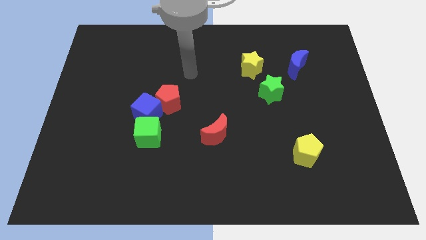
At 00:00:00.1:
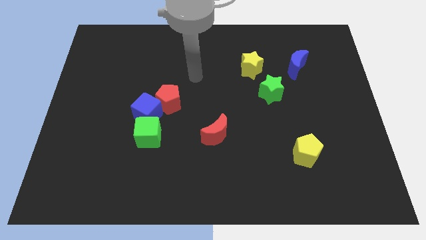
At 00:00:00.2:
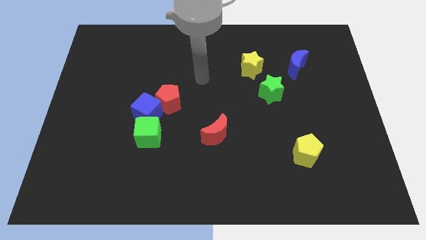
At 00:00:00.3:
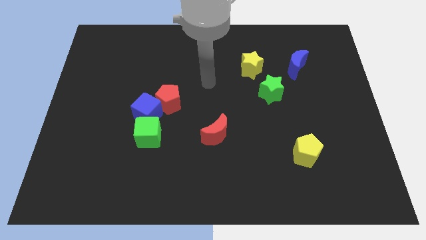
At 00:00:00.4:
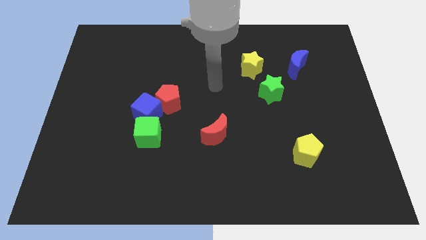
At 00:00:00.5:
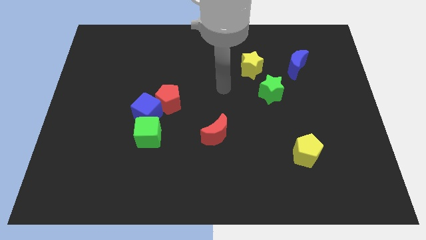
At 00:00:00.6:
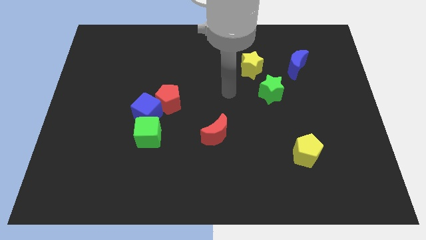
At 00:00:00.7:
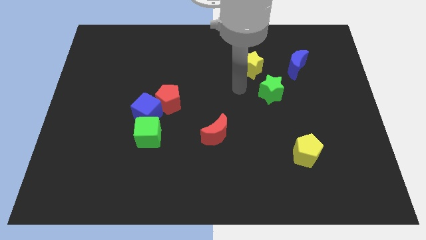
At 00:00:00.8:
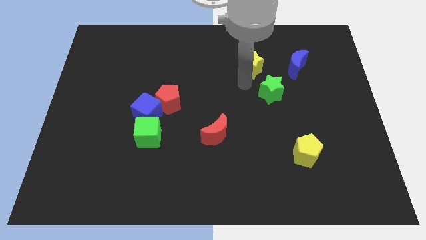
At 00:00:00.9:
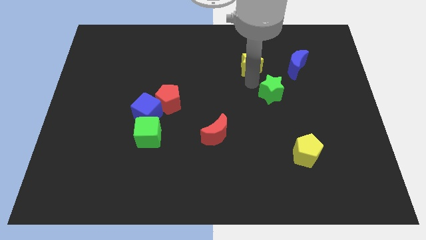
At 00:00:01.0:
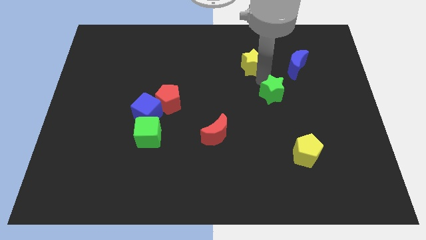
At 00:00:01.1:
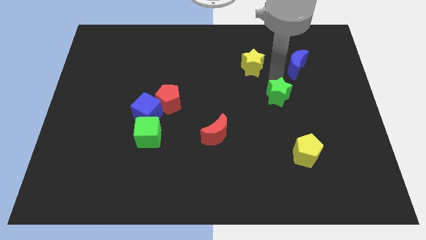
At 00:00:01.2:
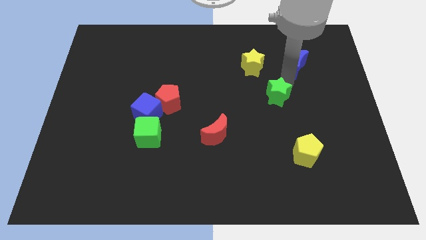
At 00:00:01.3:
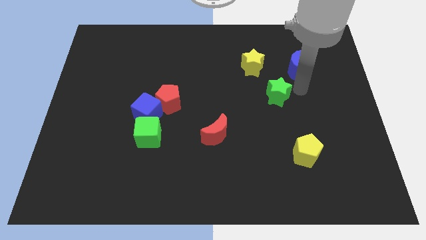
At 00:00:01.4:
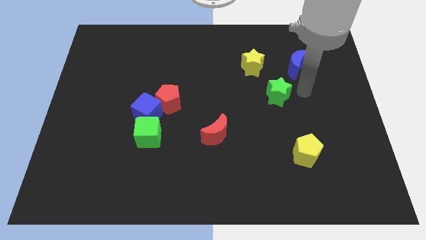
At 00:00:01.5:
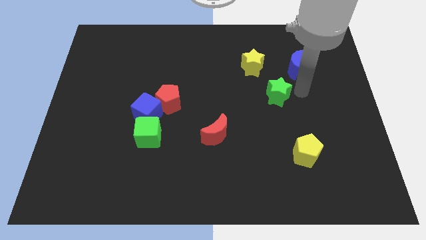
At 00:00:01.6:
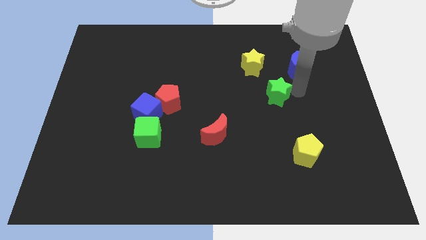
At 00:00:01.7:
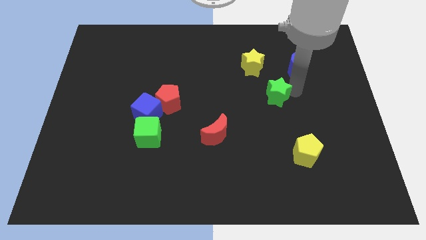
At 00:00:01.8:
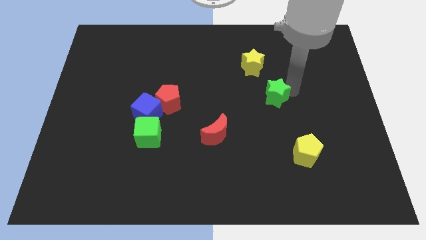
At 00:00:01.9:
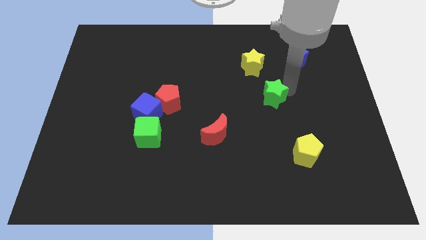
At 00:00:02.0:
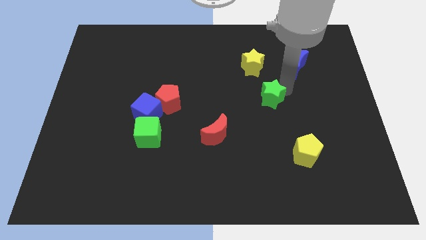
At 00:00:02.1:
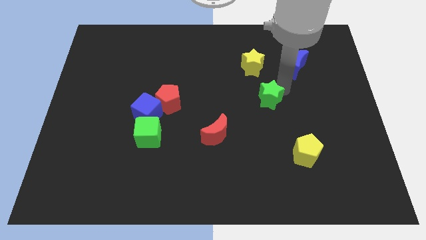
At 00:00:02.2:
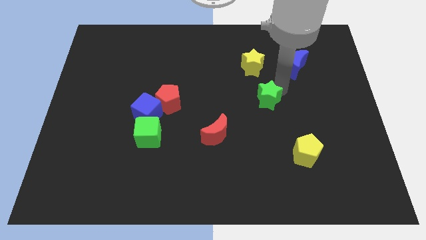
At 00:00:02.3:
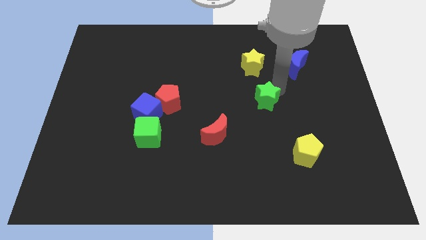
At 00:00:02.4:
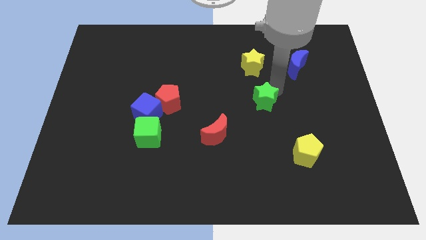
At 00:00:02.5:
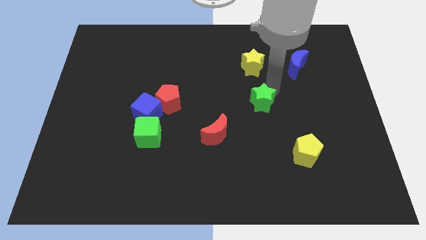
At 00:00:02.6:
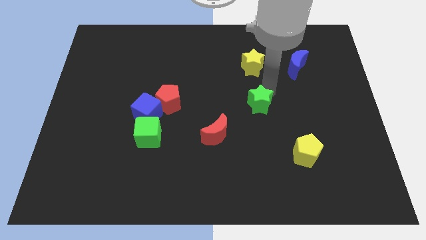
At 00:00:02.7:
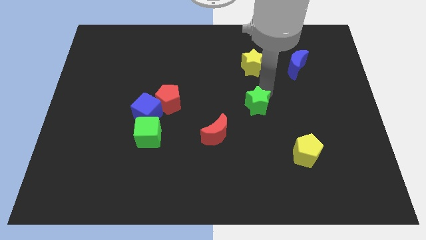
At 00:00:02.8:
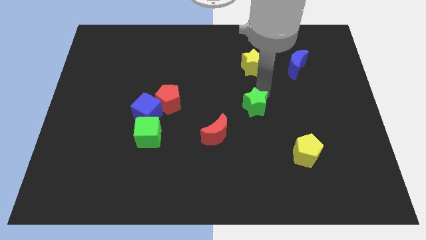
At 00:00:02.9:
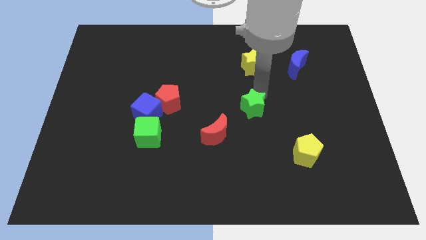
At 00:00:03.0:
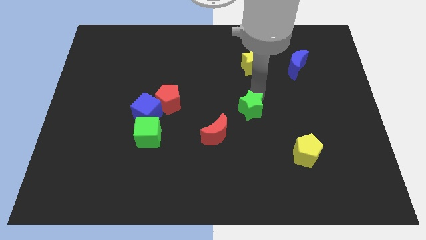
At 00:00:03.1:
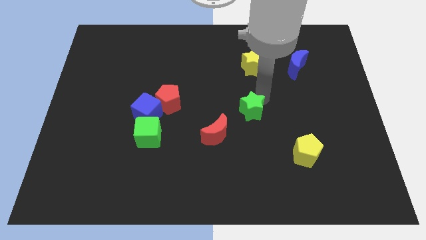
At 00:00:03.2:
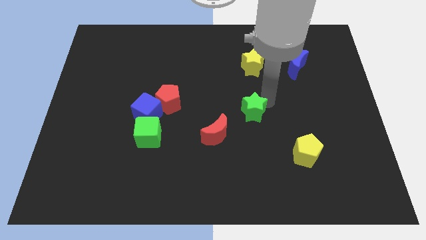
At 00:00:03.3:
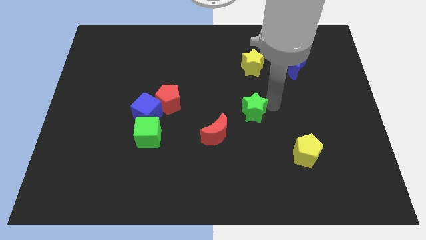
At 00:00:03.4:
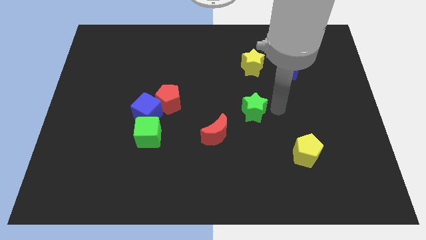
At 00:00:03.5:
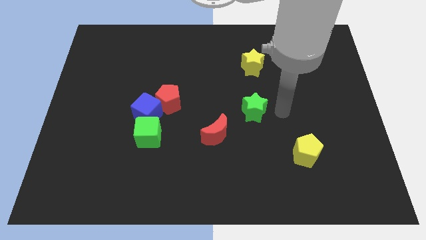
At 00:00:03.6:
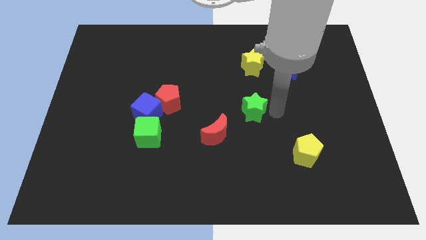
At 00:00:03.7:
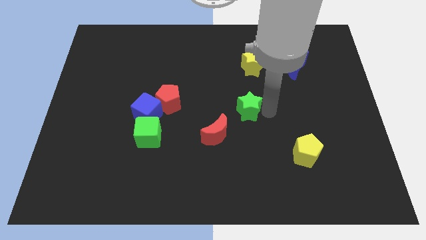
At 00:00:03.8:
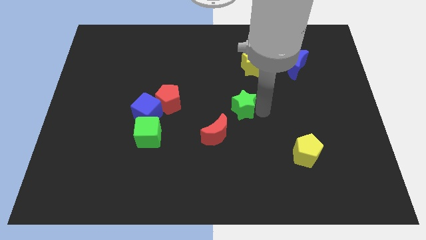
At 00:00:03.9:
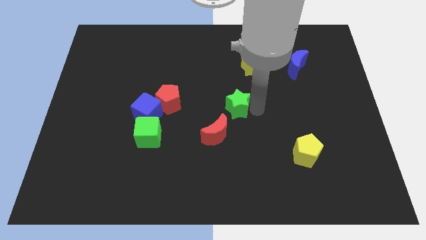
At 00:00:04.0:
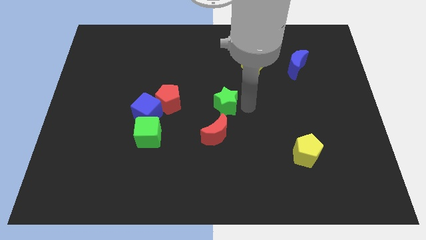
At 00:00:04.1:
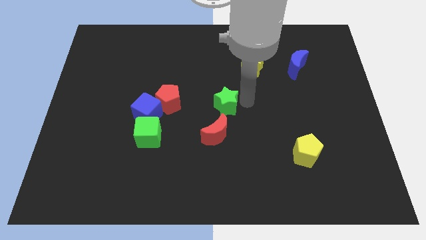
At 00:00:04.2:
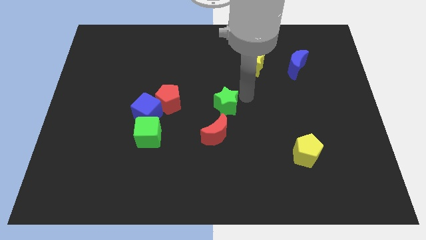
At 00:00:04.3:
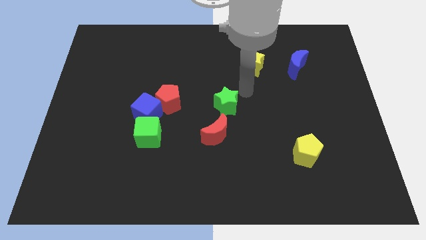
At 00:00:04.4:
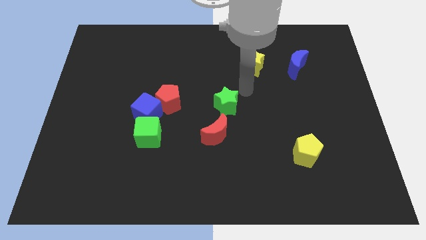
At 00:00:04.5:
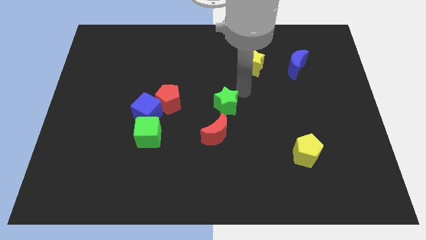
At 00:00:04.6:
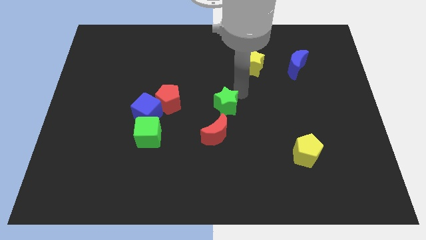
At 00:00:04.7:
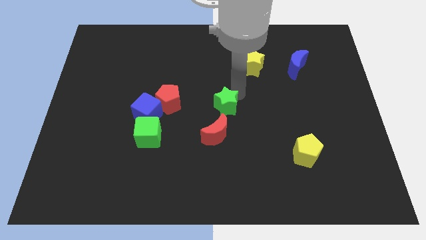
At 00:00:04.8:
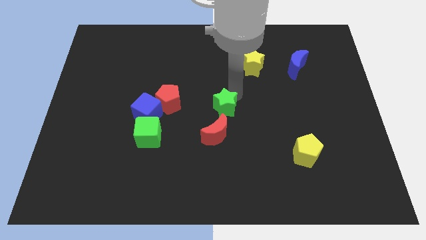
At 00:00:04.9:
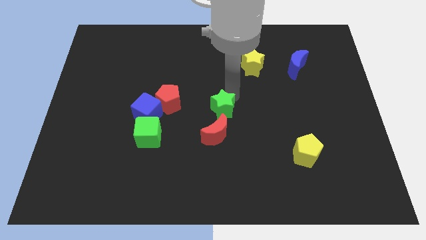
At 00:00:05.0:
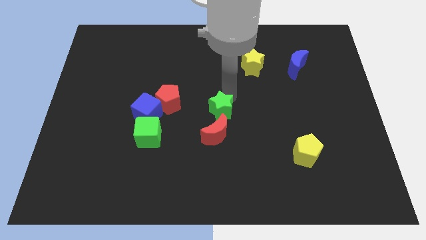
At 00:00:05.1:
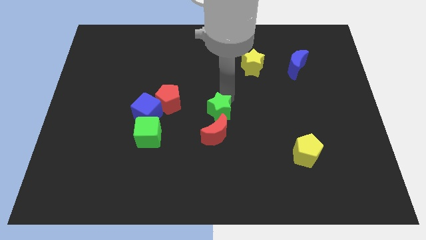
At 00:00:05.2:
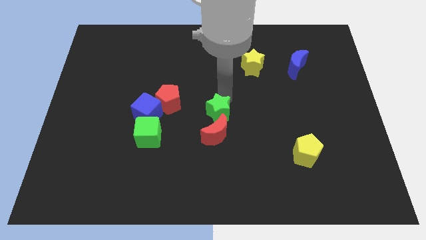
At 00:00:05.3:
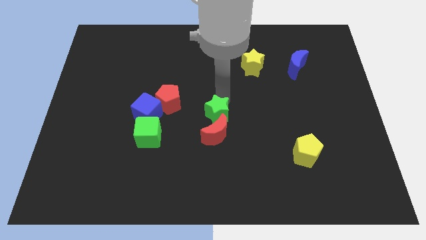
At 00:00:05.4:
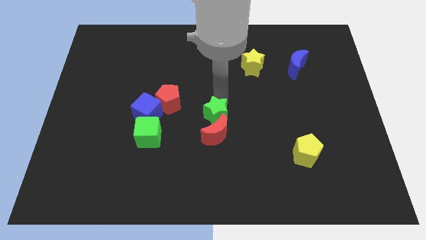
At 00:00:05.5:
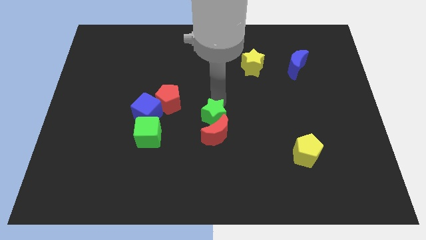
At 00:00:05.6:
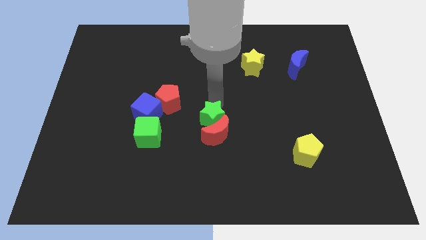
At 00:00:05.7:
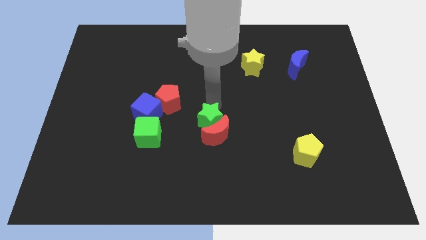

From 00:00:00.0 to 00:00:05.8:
push the green star to the right side of the green cube

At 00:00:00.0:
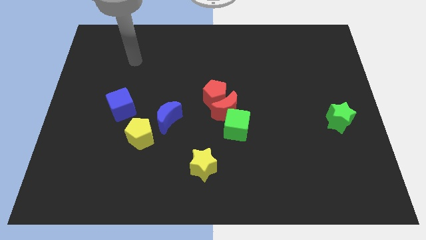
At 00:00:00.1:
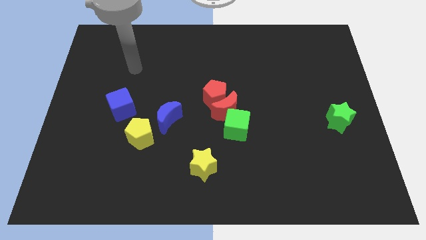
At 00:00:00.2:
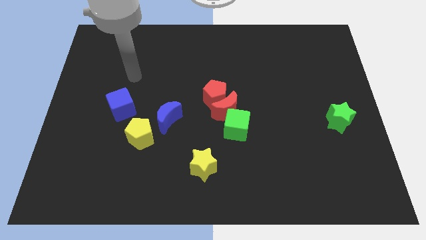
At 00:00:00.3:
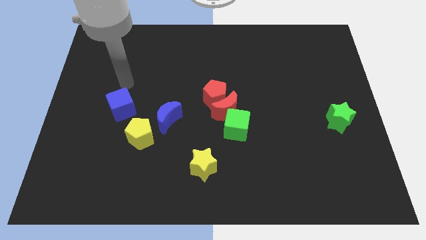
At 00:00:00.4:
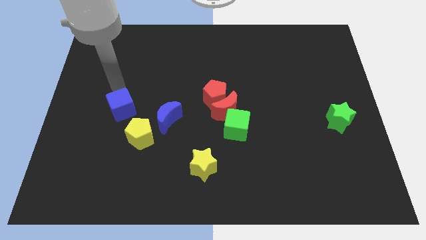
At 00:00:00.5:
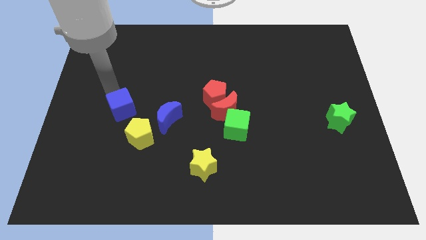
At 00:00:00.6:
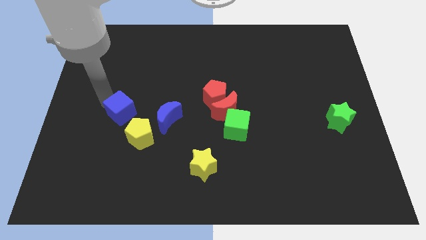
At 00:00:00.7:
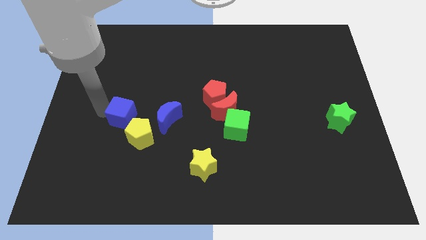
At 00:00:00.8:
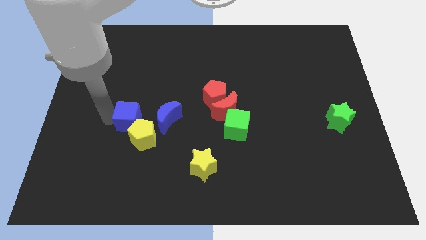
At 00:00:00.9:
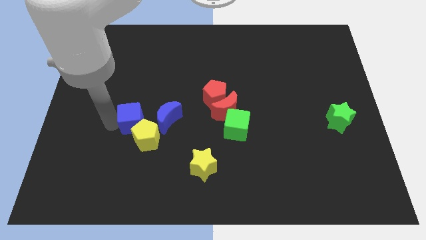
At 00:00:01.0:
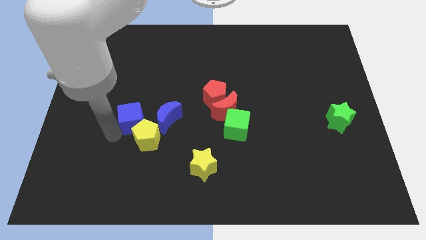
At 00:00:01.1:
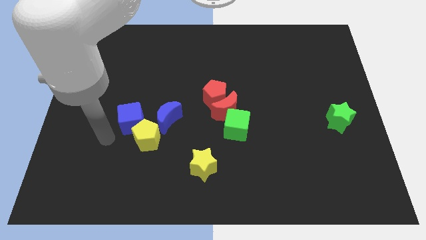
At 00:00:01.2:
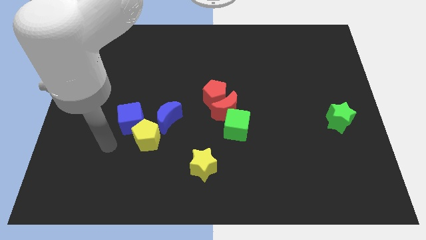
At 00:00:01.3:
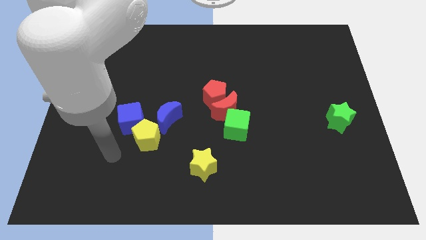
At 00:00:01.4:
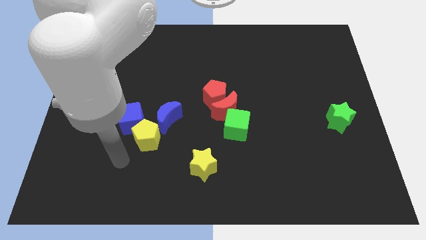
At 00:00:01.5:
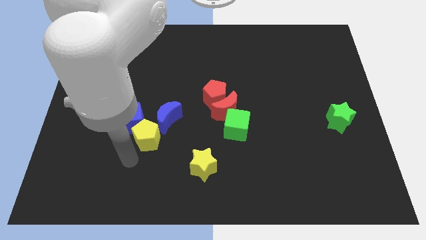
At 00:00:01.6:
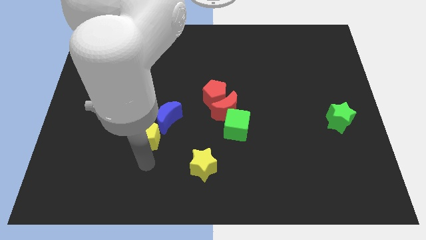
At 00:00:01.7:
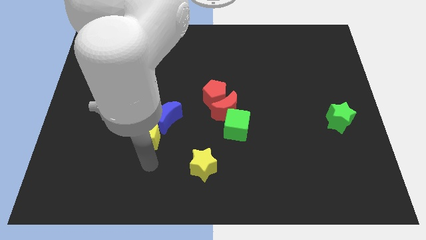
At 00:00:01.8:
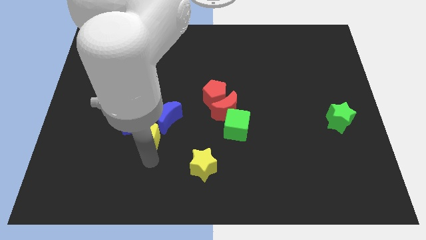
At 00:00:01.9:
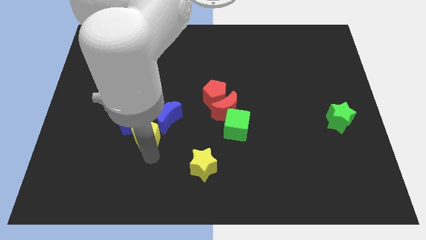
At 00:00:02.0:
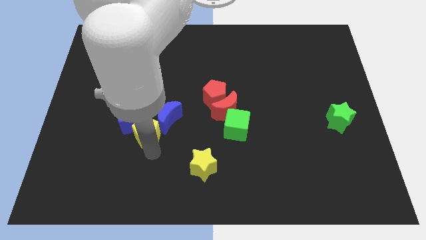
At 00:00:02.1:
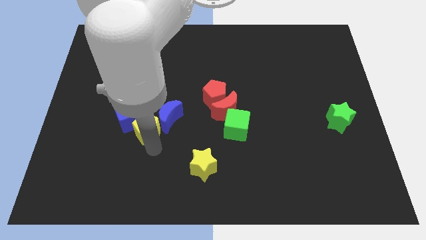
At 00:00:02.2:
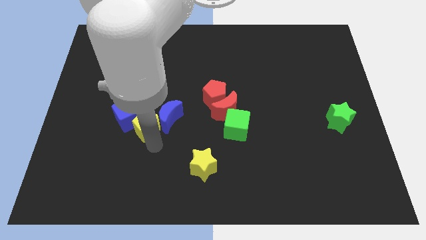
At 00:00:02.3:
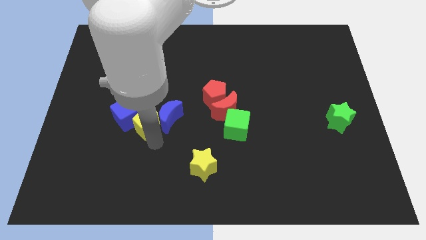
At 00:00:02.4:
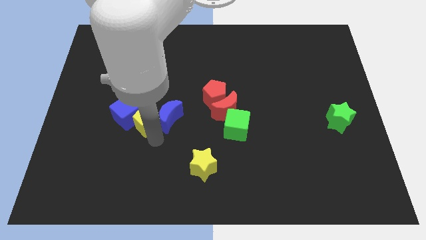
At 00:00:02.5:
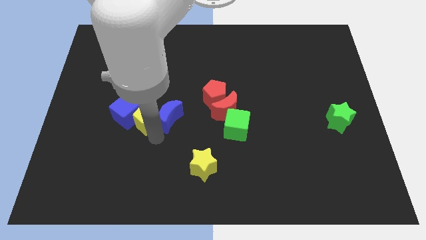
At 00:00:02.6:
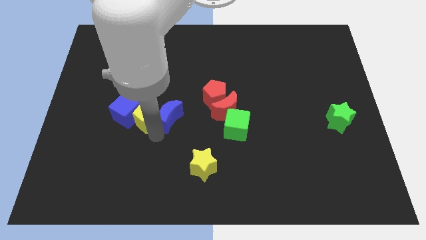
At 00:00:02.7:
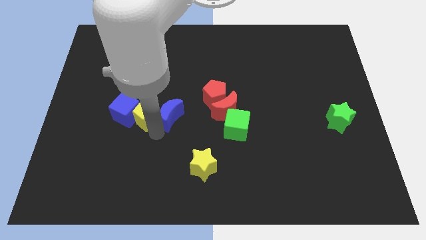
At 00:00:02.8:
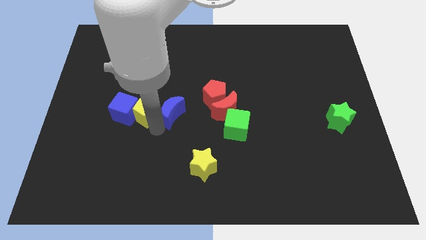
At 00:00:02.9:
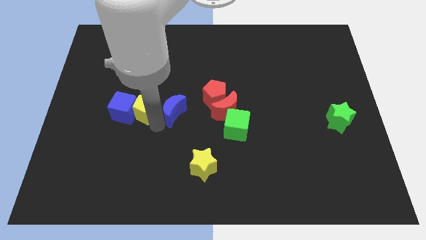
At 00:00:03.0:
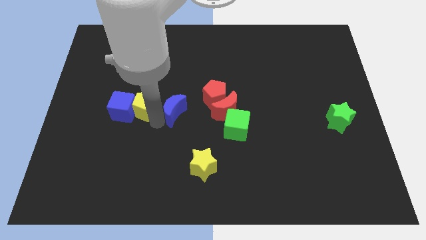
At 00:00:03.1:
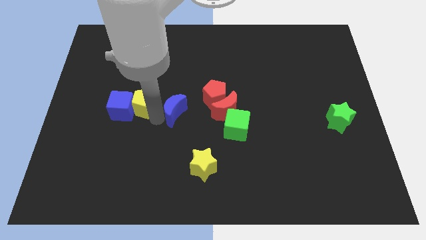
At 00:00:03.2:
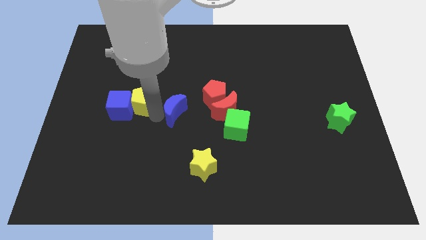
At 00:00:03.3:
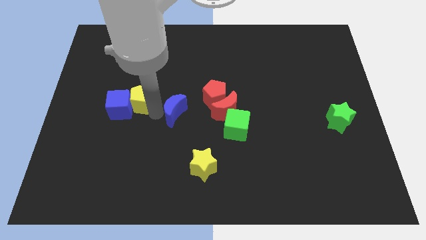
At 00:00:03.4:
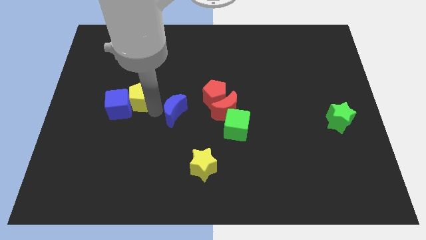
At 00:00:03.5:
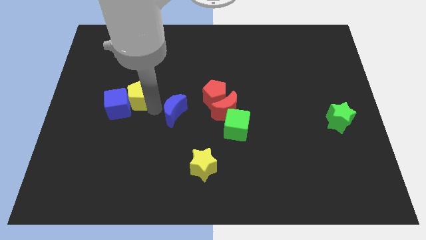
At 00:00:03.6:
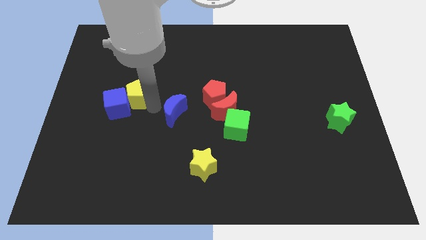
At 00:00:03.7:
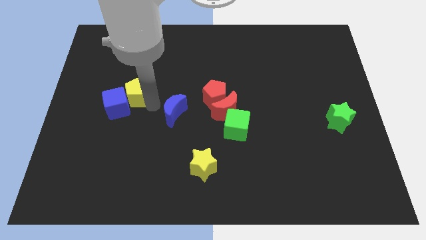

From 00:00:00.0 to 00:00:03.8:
move the yellow pentagon to the top of the blue cube
